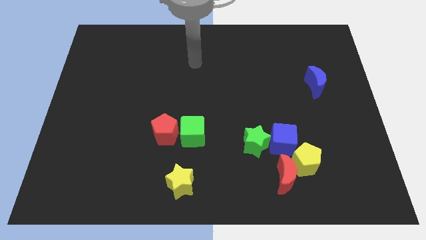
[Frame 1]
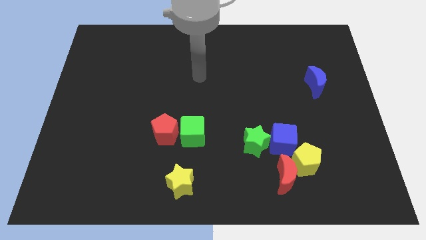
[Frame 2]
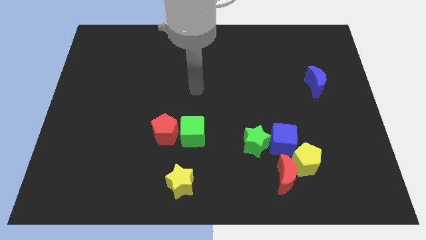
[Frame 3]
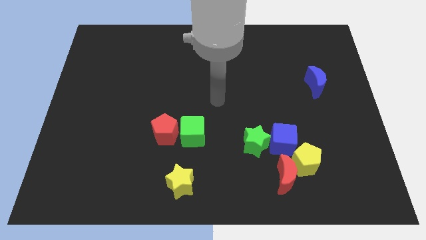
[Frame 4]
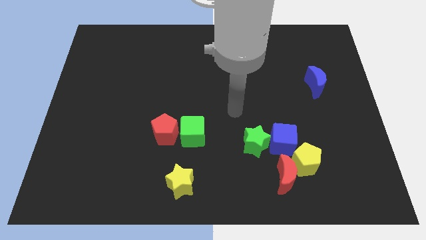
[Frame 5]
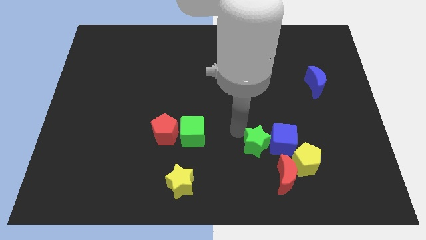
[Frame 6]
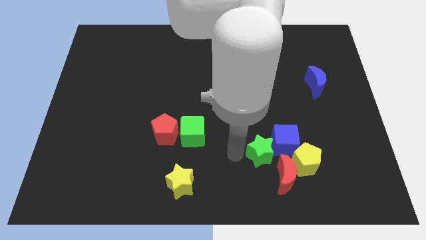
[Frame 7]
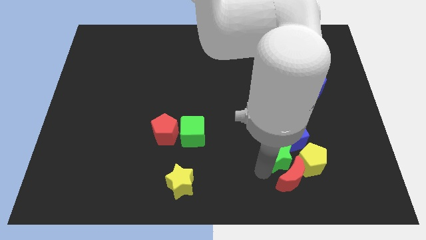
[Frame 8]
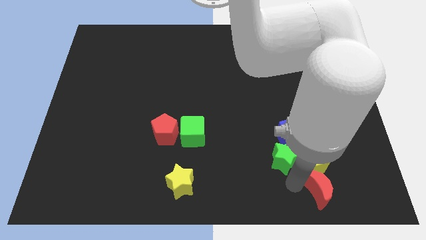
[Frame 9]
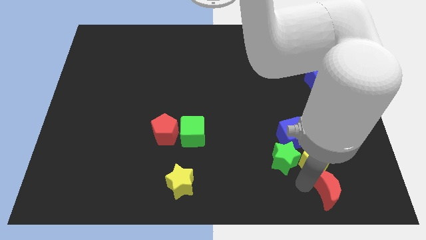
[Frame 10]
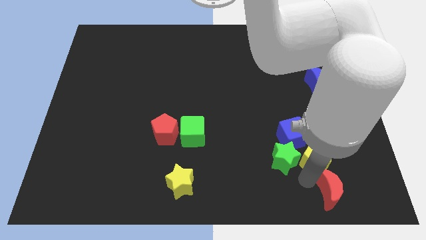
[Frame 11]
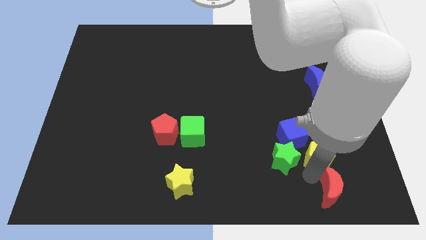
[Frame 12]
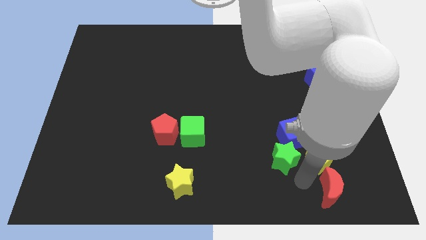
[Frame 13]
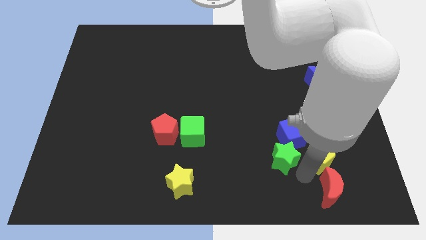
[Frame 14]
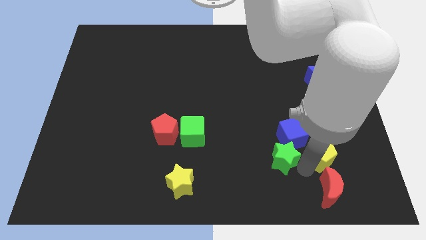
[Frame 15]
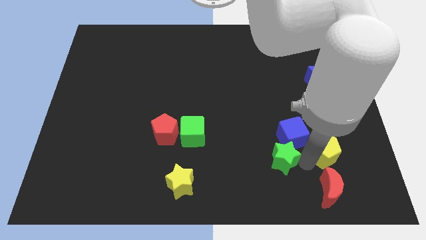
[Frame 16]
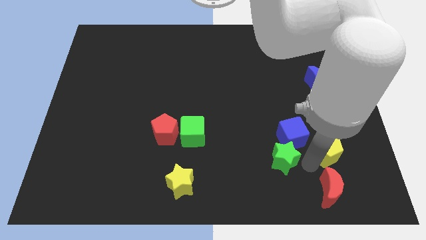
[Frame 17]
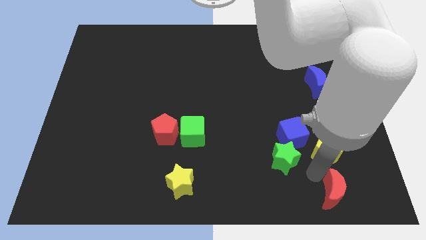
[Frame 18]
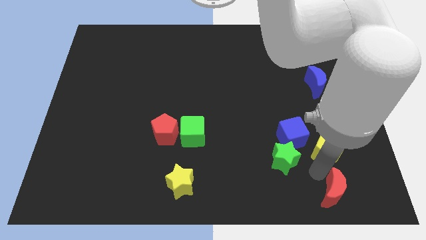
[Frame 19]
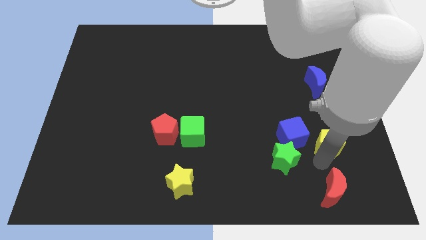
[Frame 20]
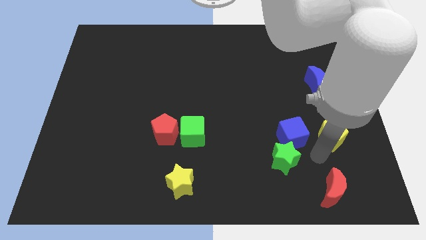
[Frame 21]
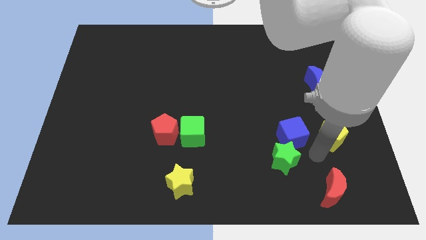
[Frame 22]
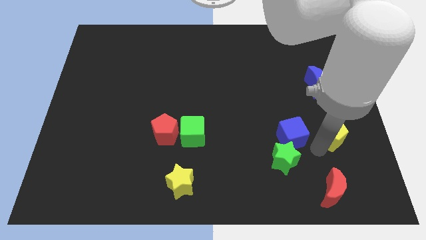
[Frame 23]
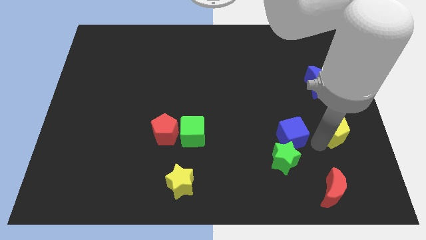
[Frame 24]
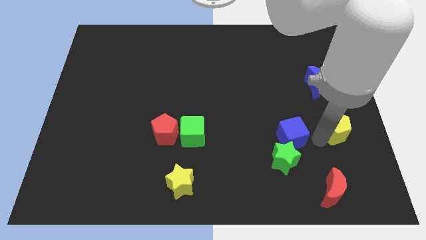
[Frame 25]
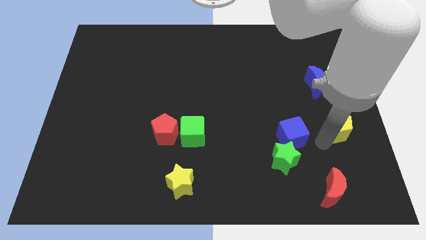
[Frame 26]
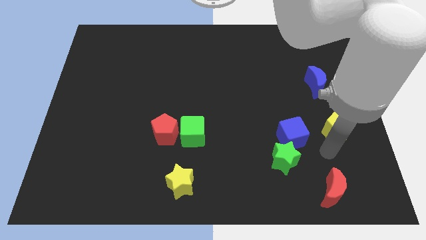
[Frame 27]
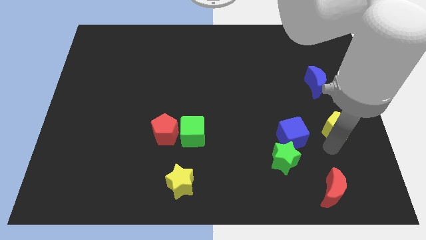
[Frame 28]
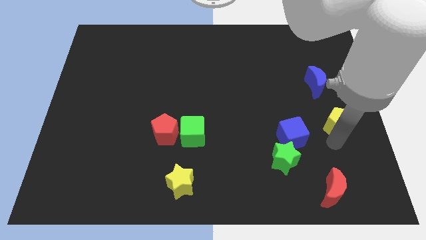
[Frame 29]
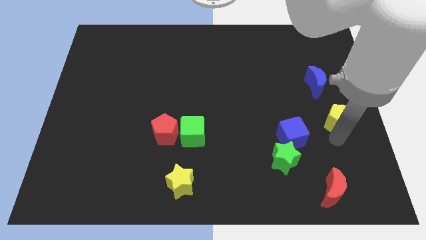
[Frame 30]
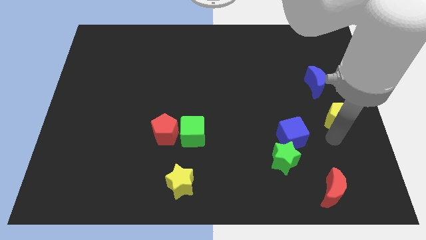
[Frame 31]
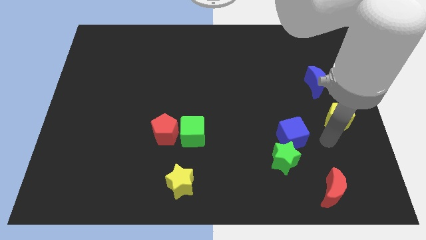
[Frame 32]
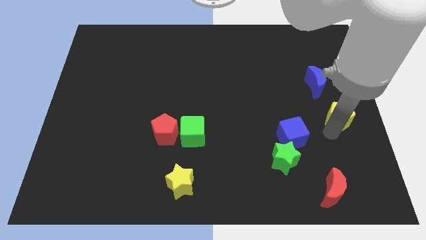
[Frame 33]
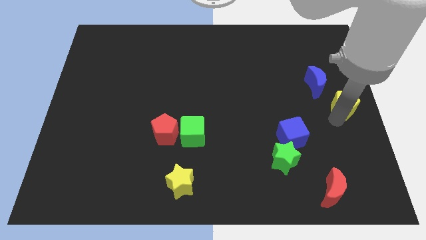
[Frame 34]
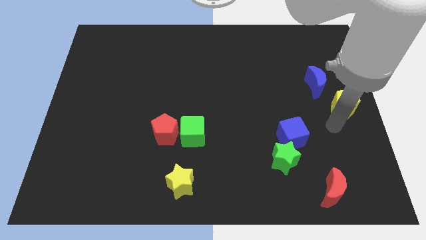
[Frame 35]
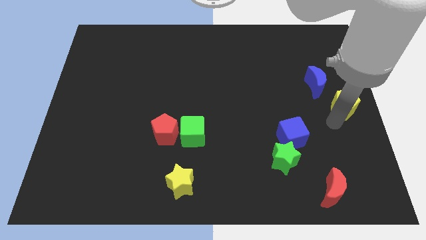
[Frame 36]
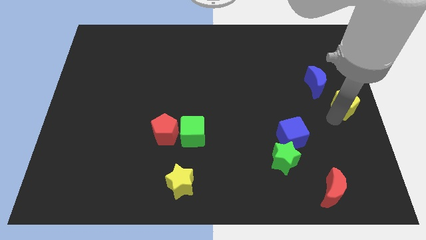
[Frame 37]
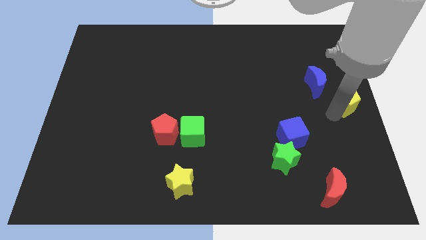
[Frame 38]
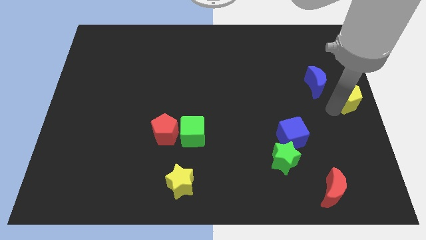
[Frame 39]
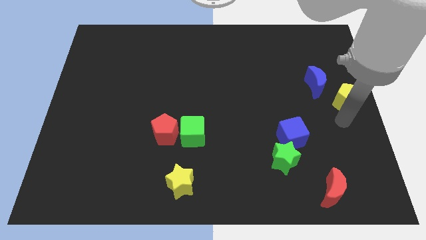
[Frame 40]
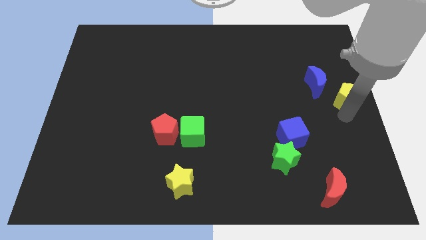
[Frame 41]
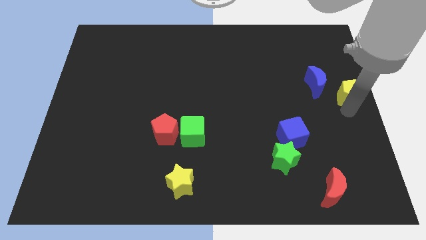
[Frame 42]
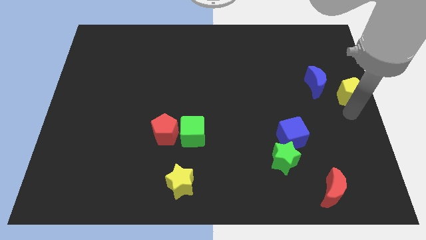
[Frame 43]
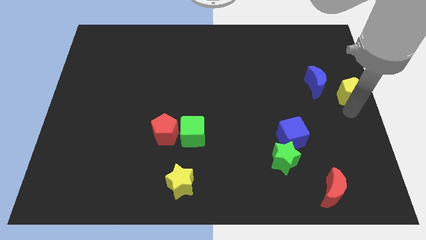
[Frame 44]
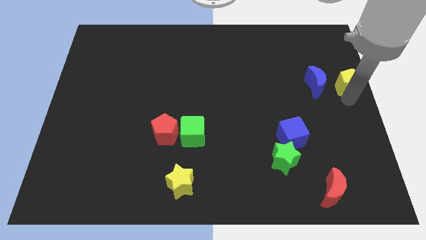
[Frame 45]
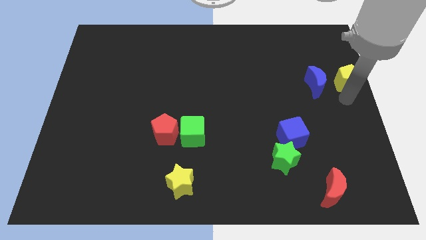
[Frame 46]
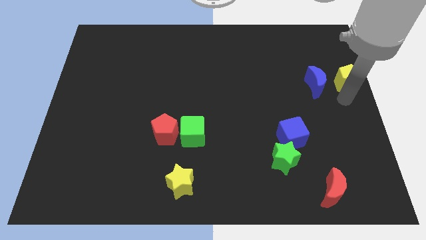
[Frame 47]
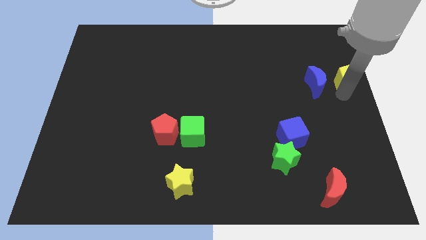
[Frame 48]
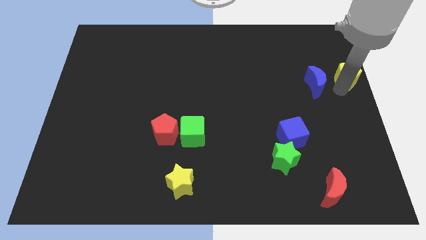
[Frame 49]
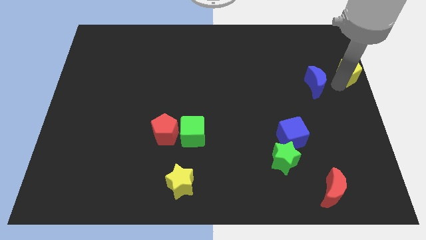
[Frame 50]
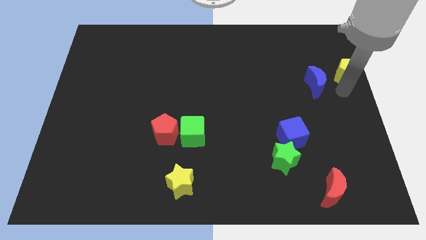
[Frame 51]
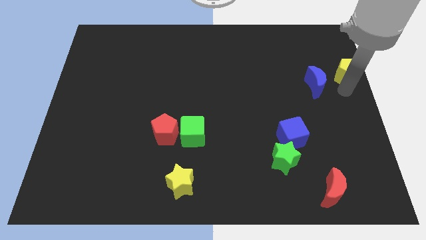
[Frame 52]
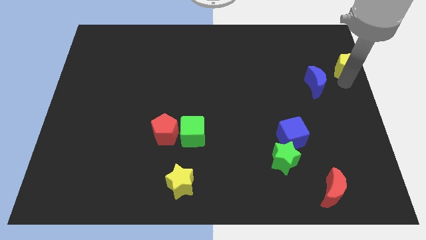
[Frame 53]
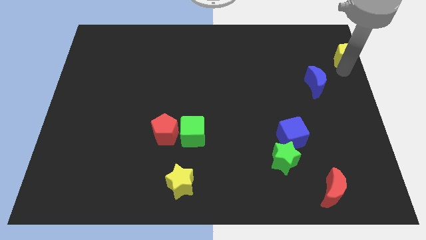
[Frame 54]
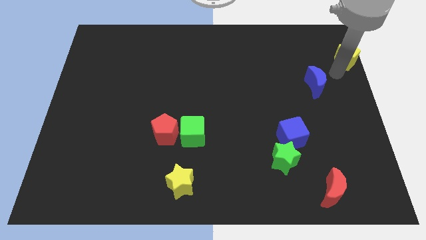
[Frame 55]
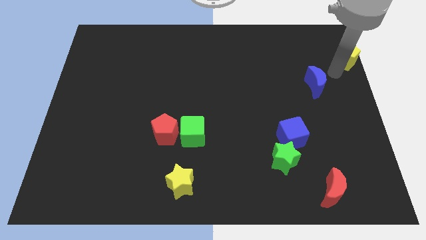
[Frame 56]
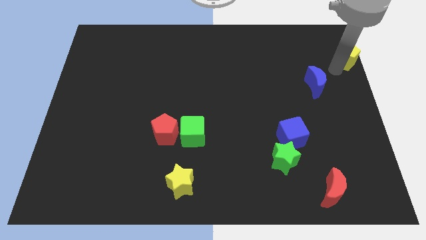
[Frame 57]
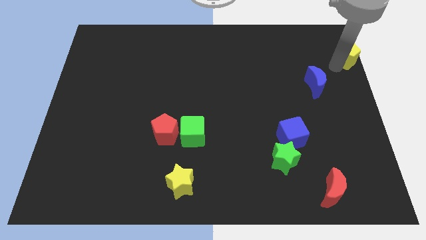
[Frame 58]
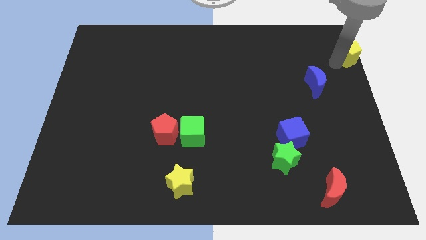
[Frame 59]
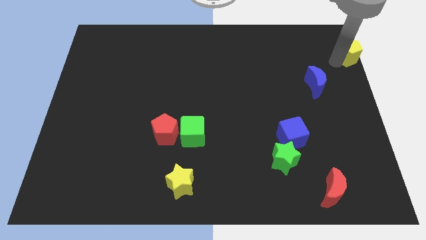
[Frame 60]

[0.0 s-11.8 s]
put the yellow pentagon to the top right corner

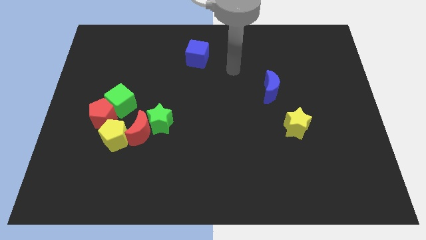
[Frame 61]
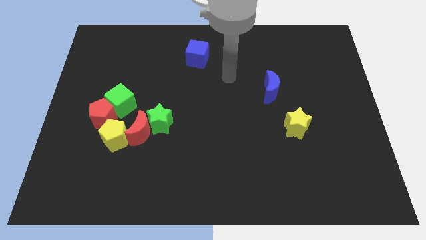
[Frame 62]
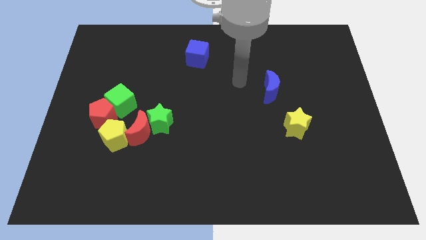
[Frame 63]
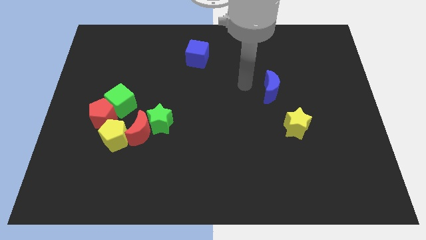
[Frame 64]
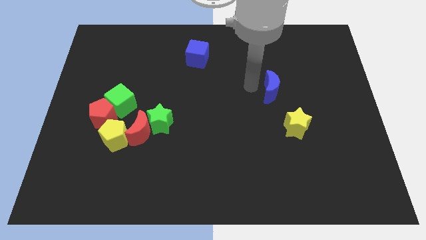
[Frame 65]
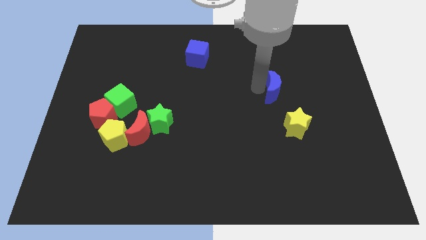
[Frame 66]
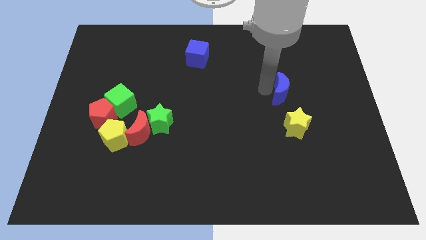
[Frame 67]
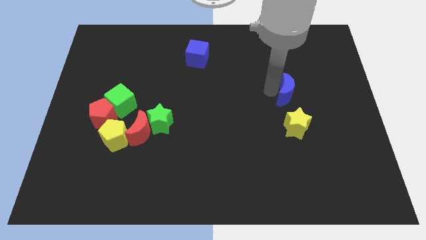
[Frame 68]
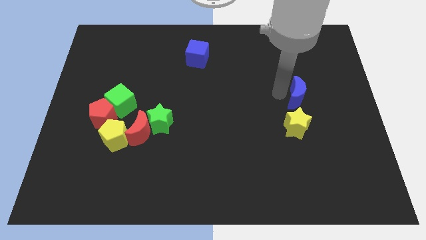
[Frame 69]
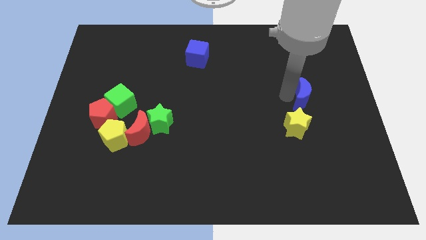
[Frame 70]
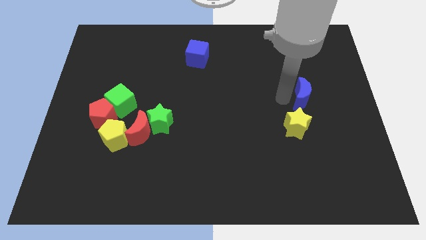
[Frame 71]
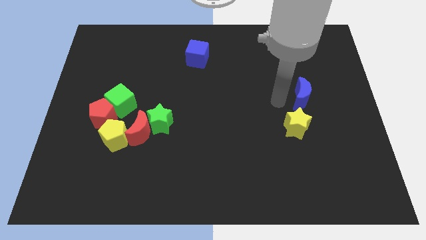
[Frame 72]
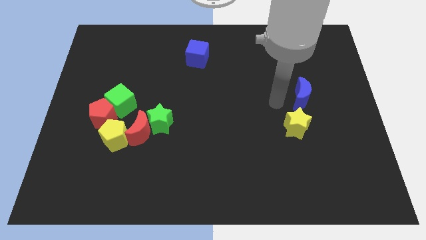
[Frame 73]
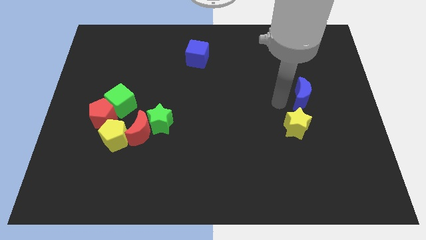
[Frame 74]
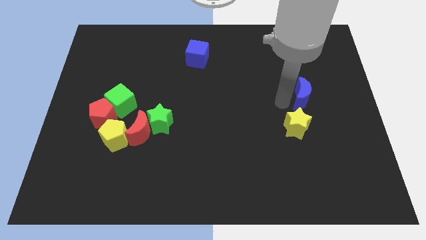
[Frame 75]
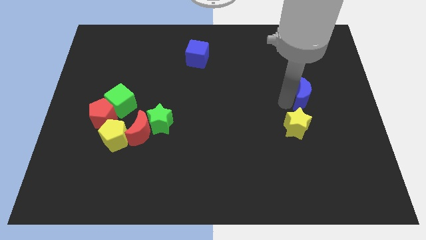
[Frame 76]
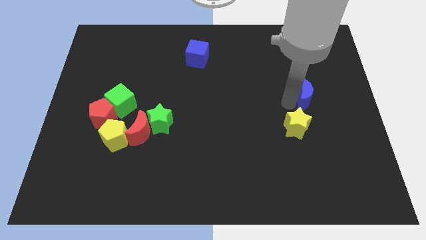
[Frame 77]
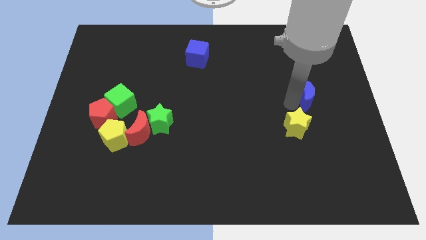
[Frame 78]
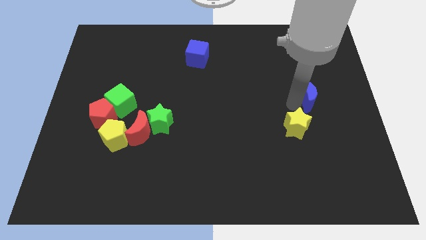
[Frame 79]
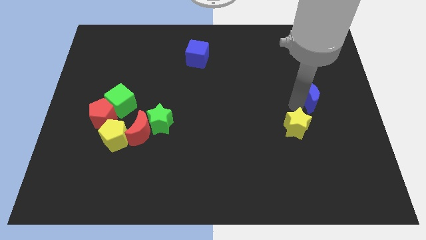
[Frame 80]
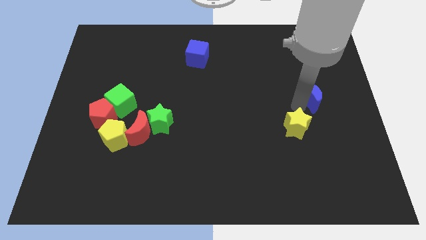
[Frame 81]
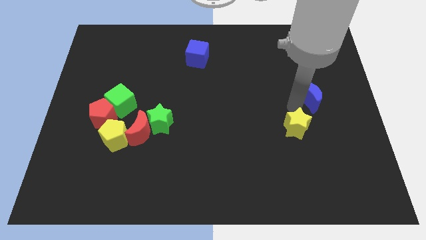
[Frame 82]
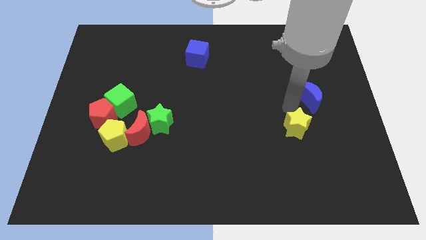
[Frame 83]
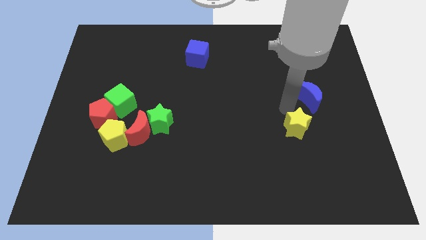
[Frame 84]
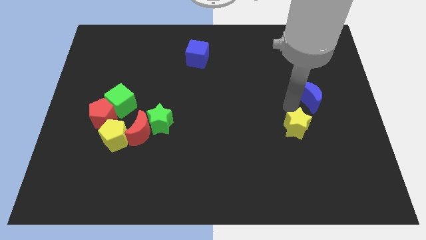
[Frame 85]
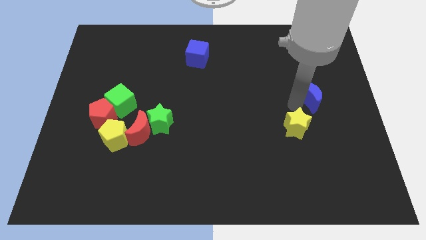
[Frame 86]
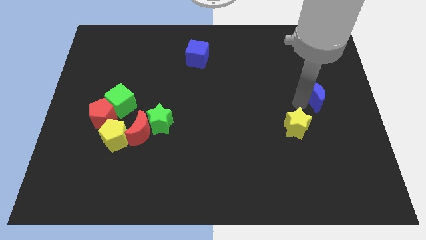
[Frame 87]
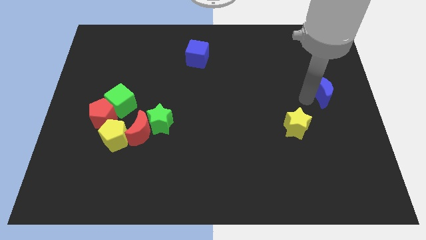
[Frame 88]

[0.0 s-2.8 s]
slide the blue moon to the right side
